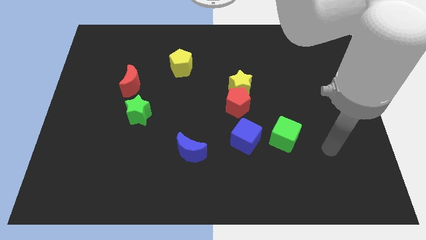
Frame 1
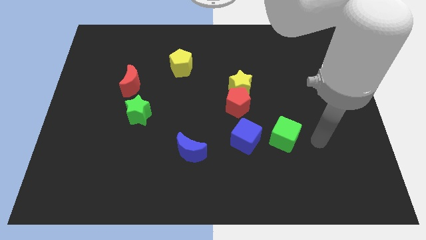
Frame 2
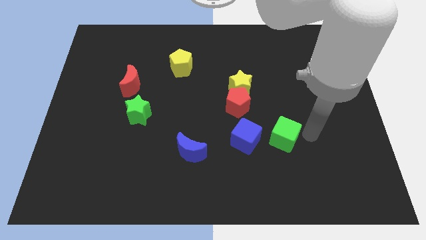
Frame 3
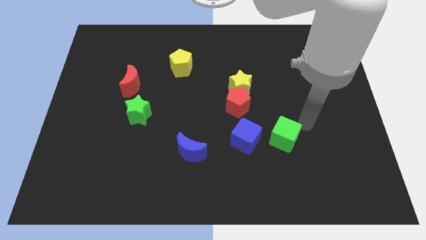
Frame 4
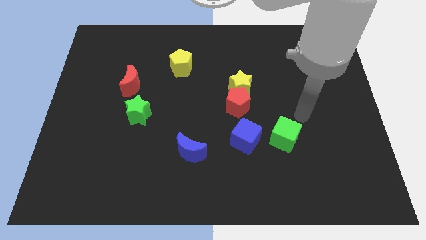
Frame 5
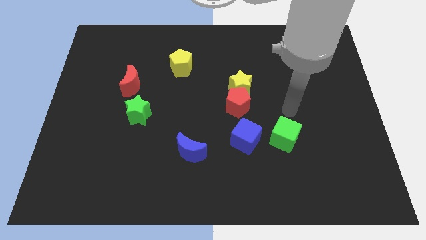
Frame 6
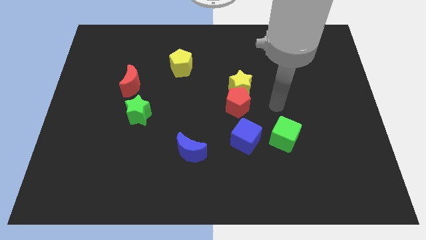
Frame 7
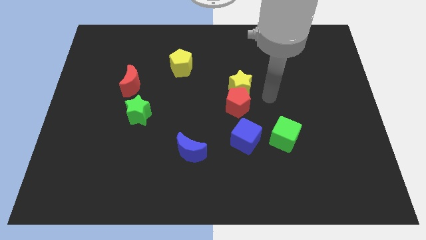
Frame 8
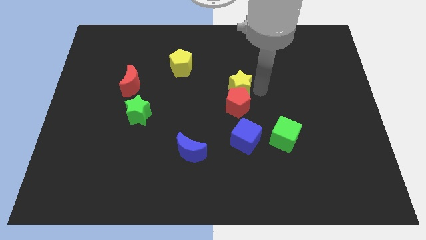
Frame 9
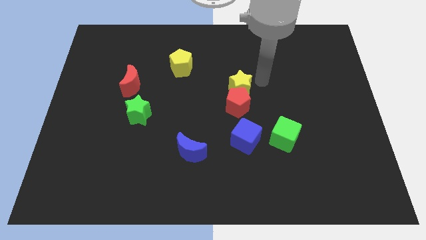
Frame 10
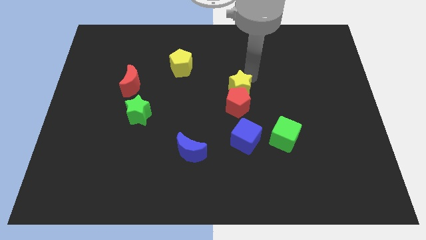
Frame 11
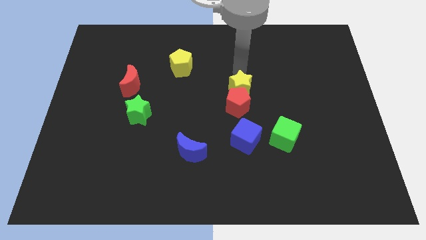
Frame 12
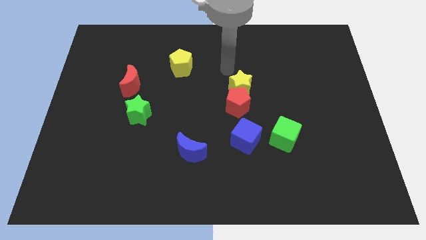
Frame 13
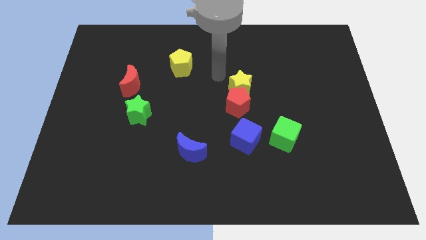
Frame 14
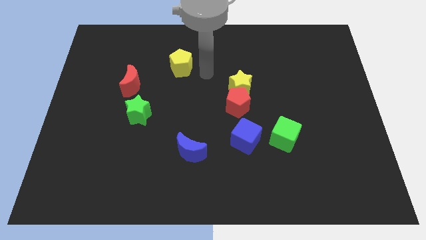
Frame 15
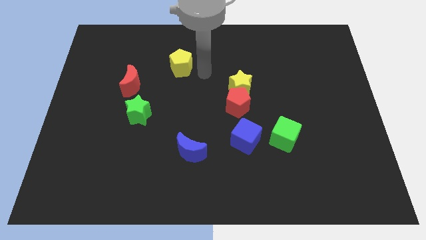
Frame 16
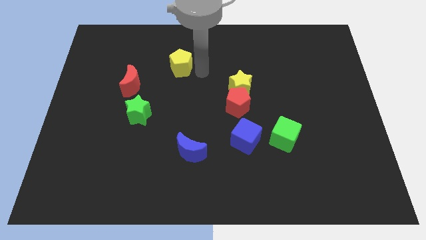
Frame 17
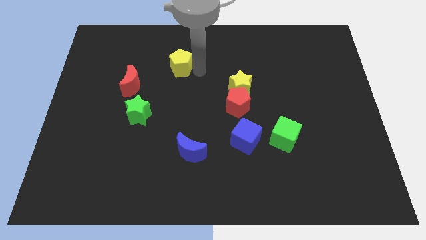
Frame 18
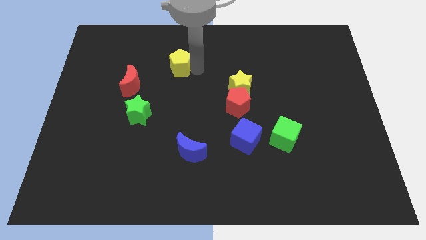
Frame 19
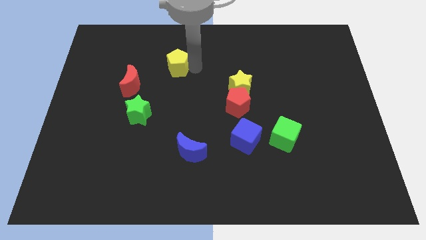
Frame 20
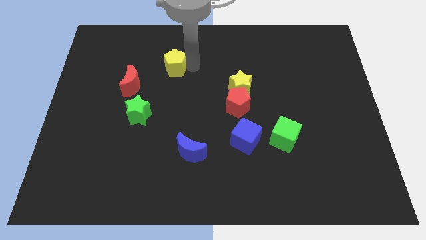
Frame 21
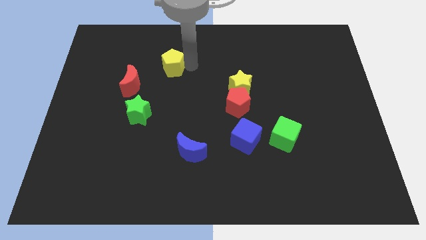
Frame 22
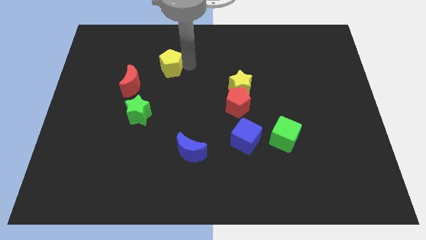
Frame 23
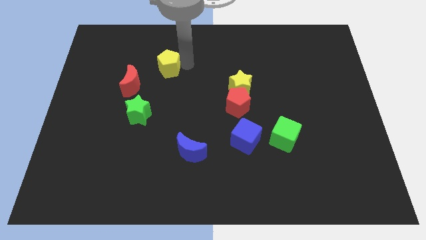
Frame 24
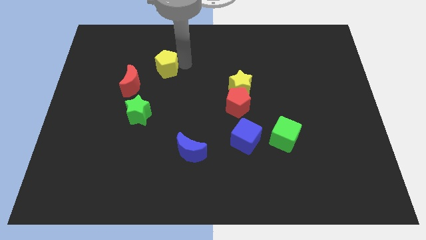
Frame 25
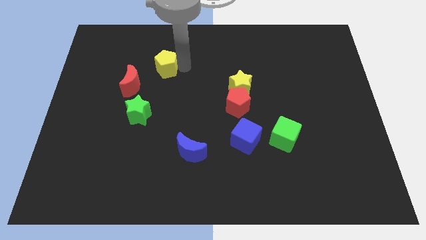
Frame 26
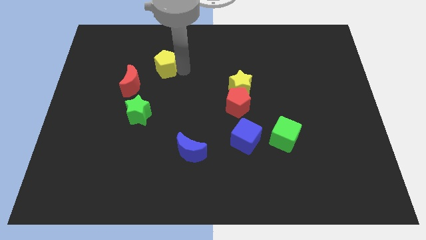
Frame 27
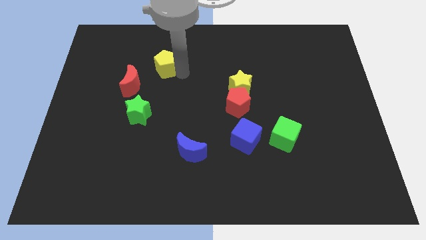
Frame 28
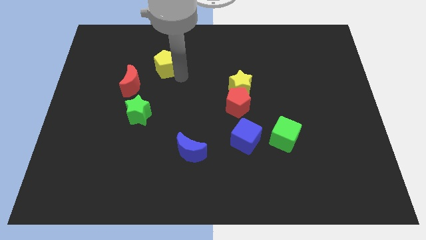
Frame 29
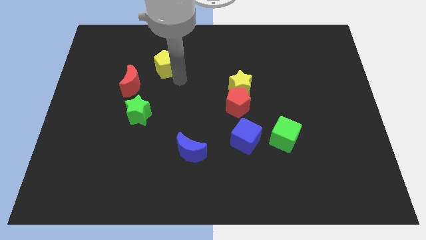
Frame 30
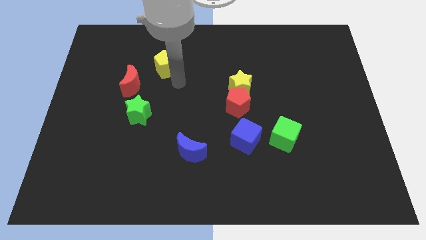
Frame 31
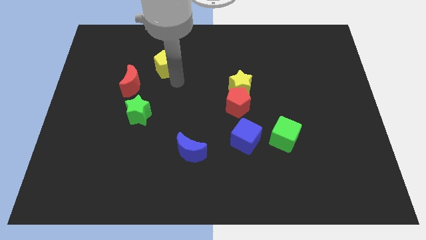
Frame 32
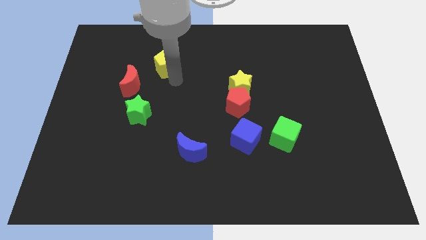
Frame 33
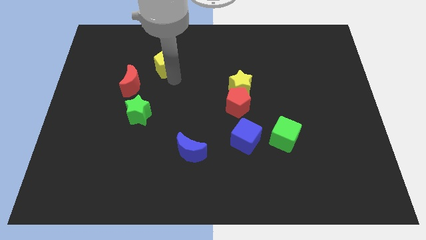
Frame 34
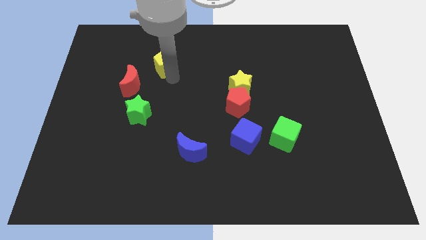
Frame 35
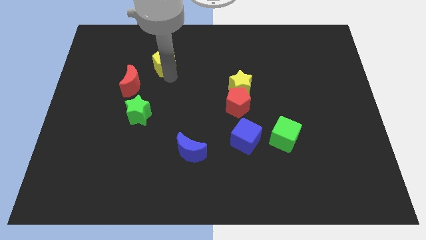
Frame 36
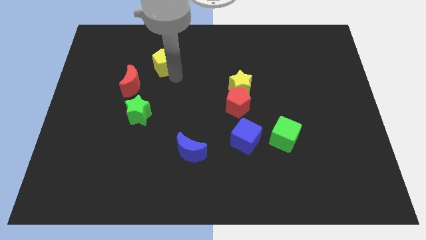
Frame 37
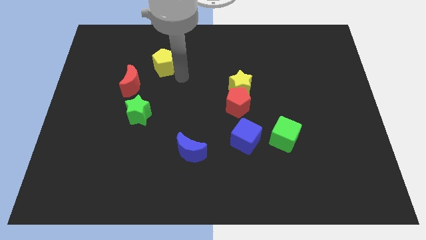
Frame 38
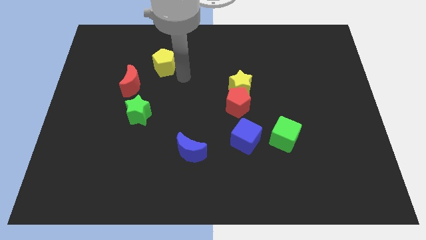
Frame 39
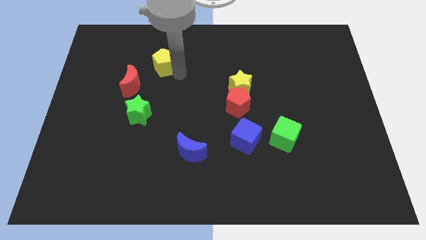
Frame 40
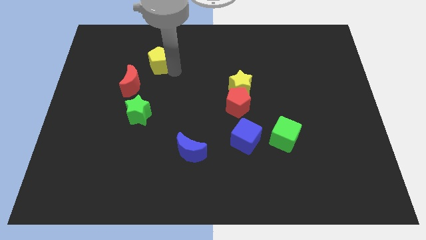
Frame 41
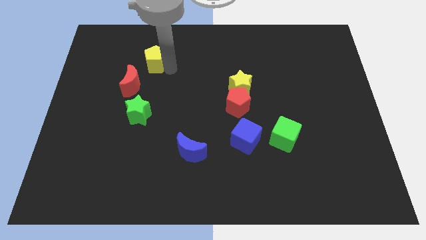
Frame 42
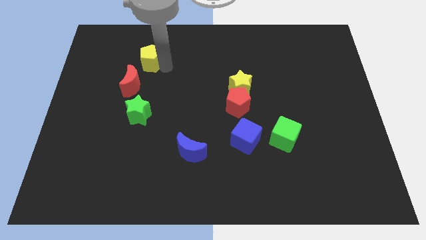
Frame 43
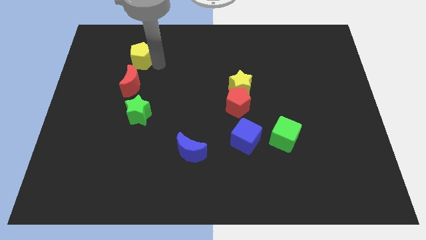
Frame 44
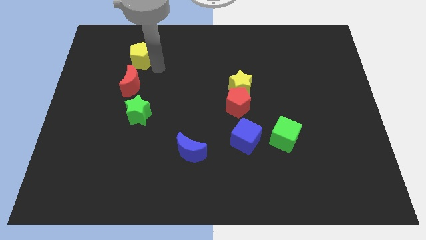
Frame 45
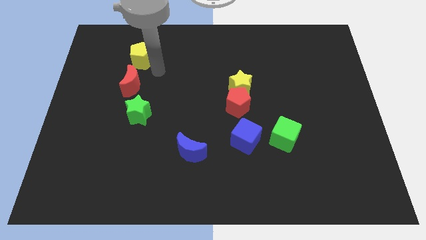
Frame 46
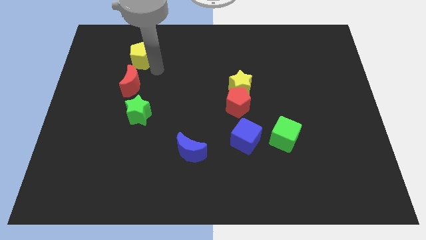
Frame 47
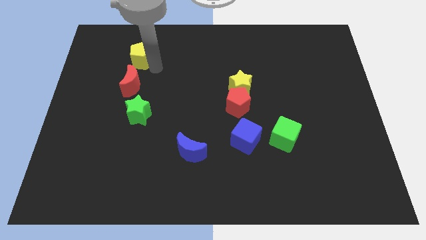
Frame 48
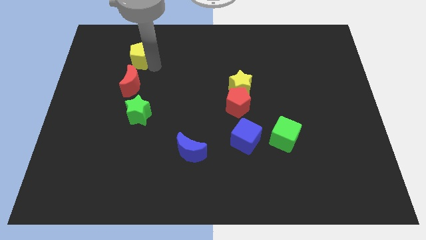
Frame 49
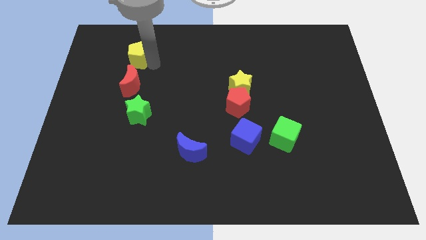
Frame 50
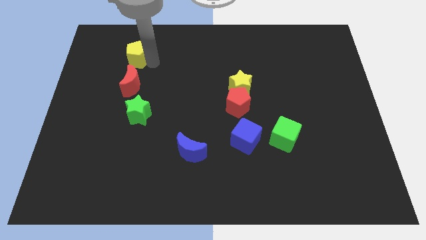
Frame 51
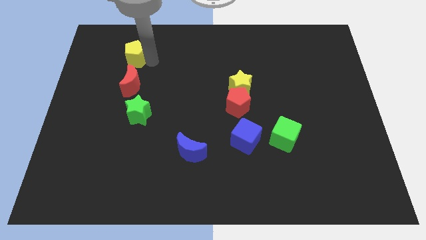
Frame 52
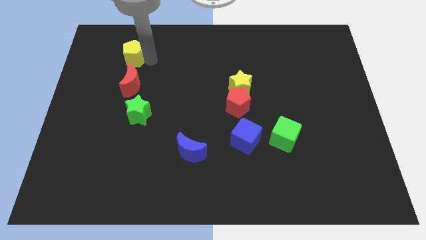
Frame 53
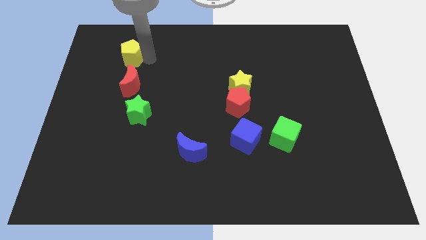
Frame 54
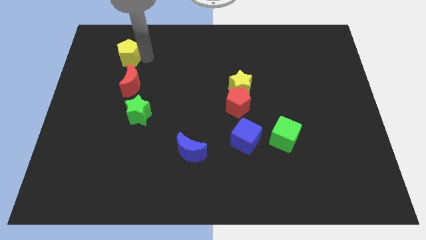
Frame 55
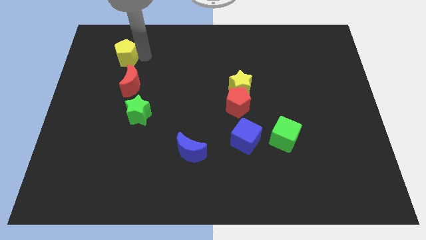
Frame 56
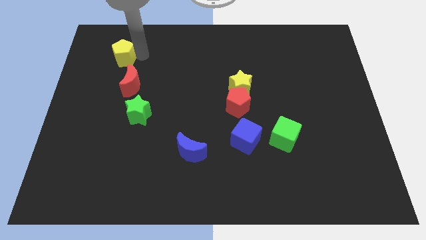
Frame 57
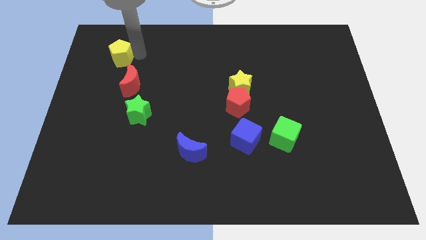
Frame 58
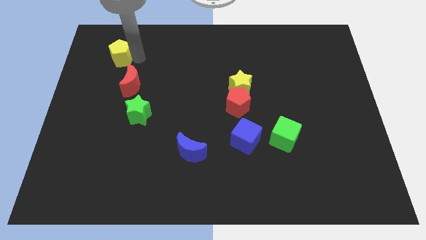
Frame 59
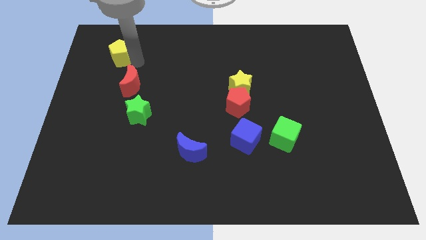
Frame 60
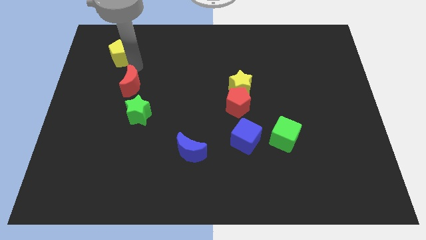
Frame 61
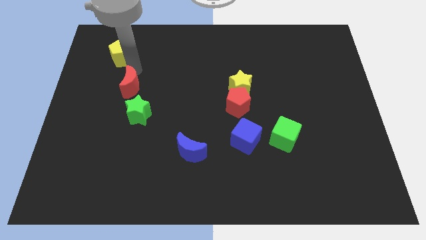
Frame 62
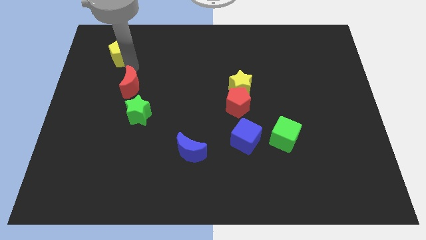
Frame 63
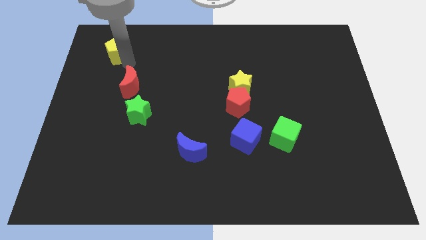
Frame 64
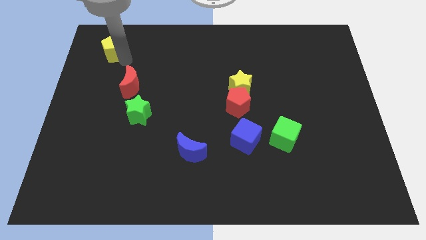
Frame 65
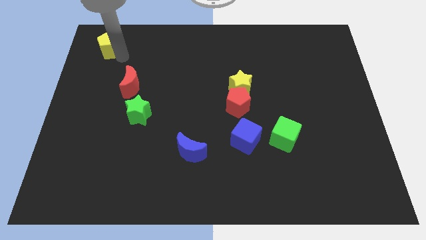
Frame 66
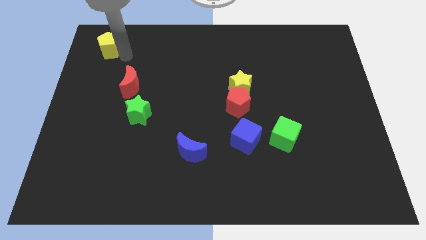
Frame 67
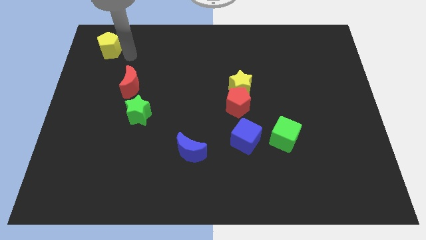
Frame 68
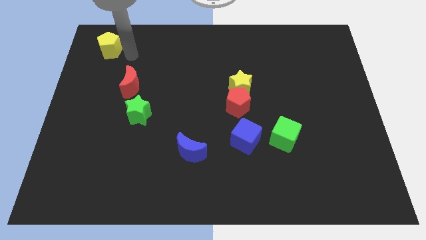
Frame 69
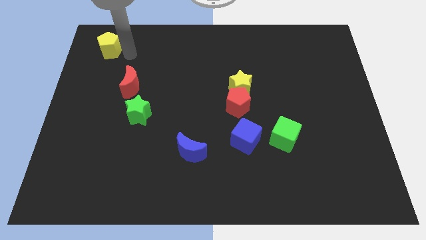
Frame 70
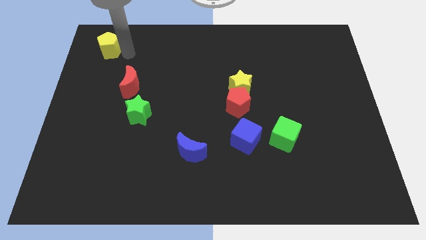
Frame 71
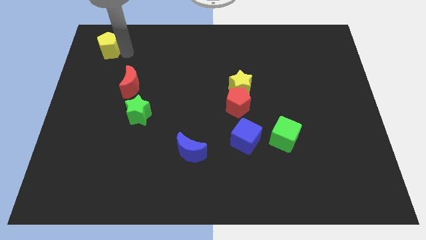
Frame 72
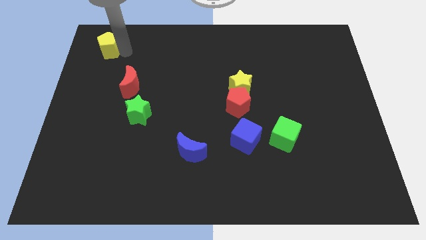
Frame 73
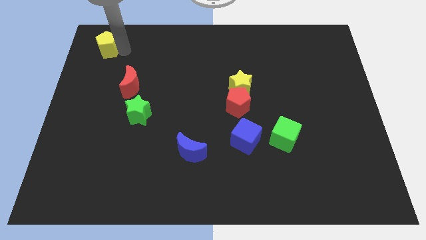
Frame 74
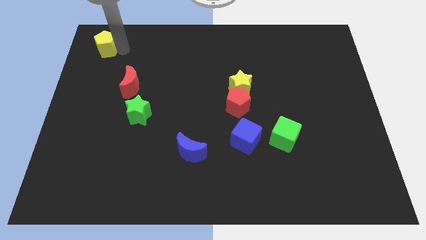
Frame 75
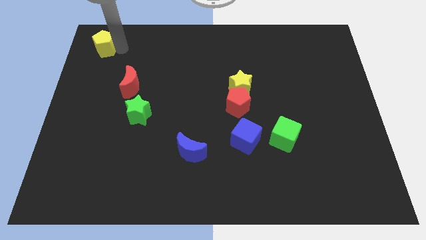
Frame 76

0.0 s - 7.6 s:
move the yellow pentagon to the top left corner

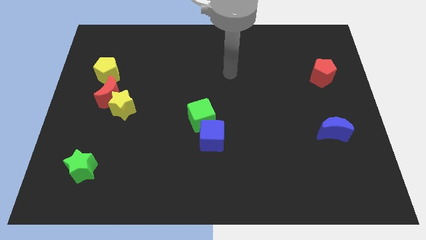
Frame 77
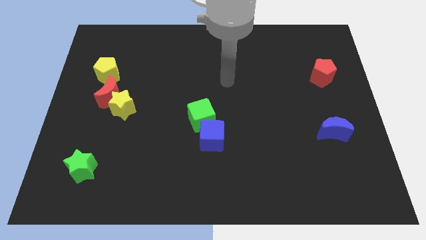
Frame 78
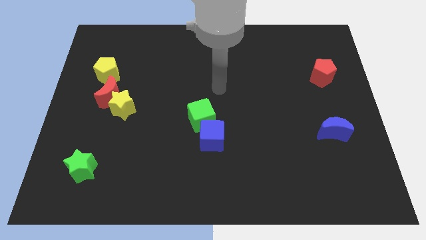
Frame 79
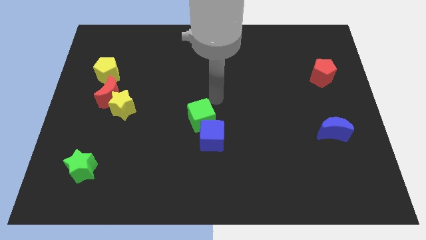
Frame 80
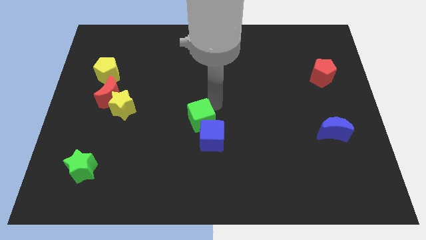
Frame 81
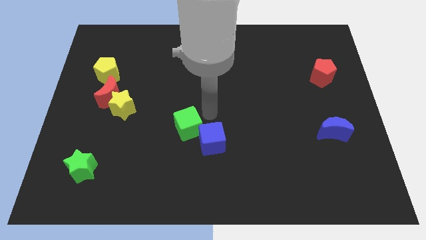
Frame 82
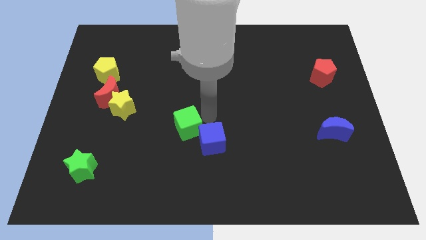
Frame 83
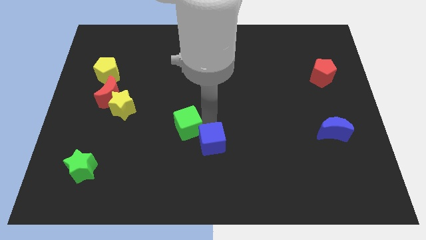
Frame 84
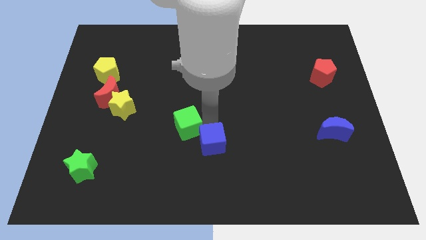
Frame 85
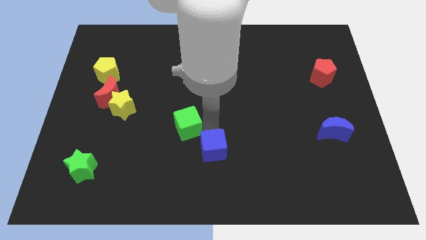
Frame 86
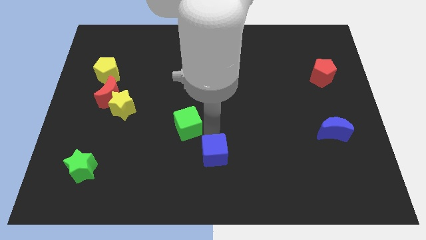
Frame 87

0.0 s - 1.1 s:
put the blue cube to the bottom
